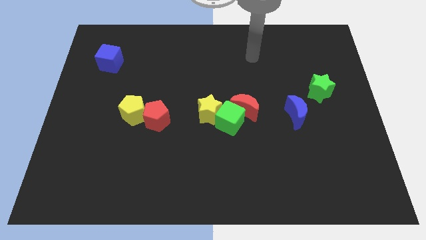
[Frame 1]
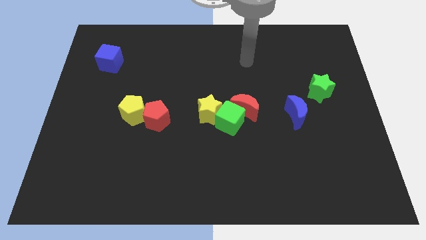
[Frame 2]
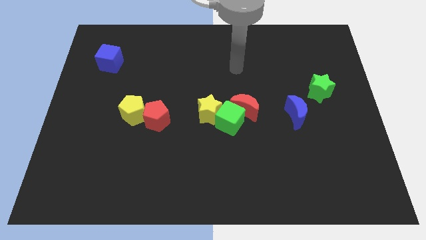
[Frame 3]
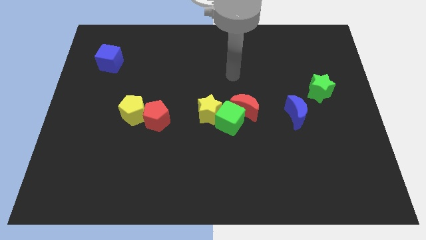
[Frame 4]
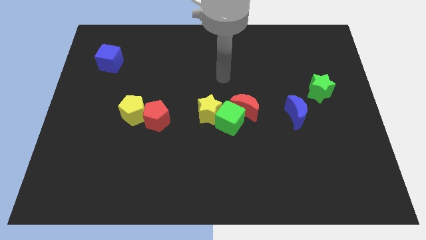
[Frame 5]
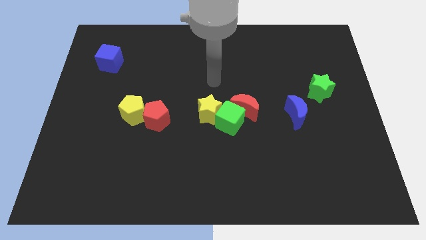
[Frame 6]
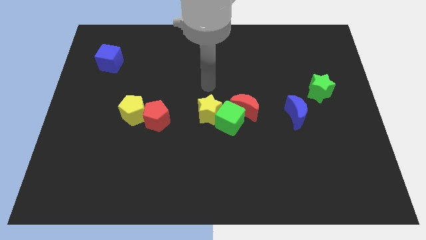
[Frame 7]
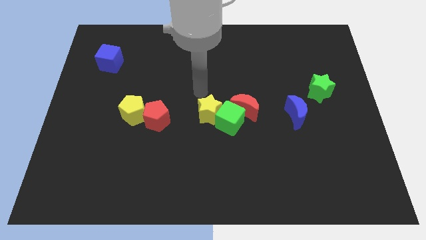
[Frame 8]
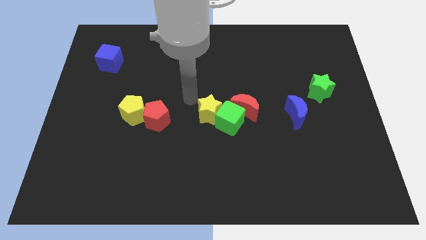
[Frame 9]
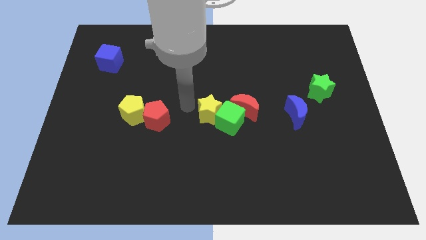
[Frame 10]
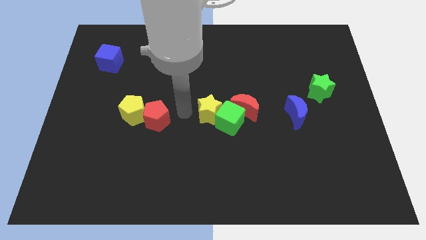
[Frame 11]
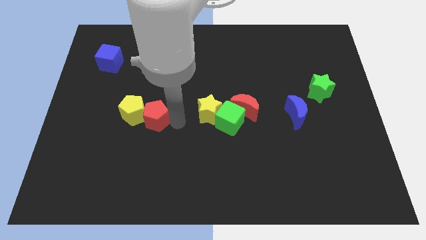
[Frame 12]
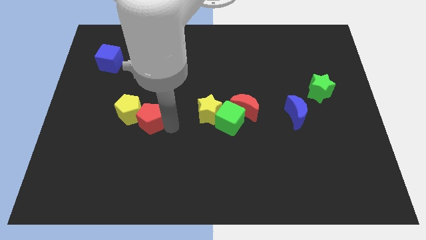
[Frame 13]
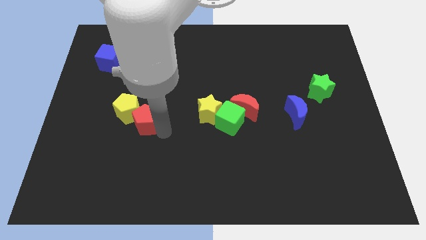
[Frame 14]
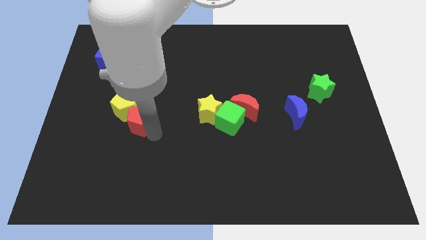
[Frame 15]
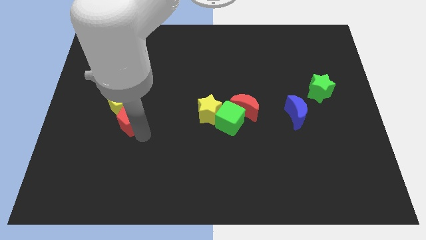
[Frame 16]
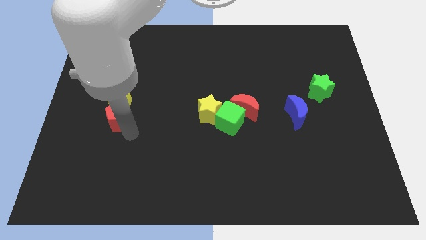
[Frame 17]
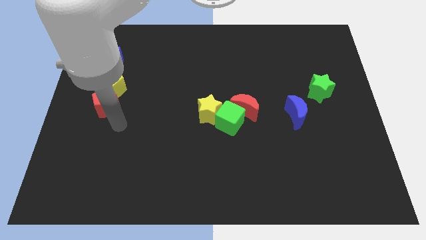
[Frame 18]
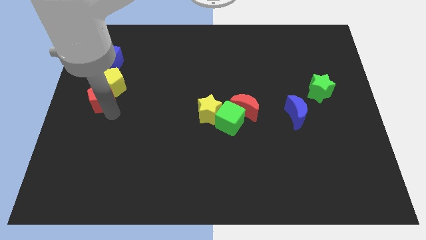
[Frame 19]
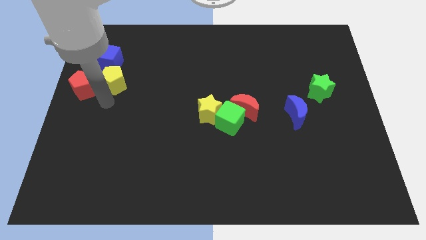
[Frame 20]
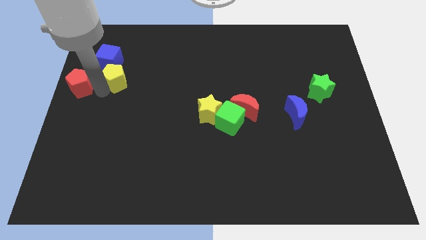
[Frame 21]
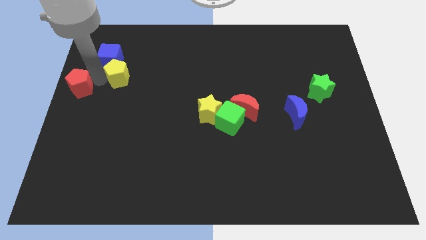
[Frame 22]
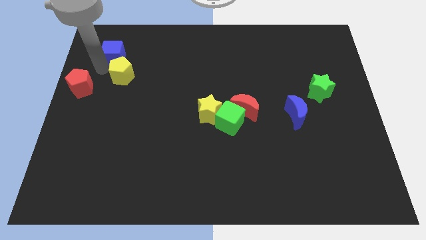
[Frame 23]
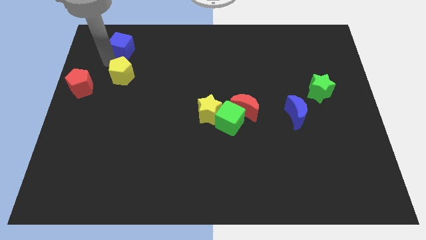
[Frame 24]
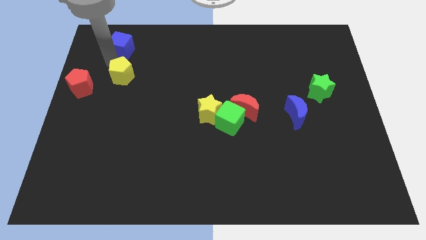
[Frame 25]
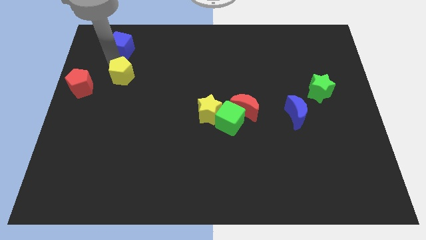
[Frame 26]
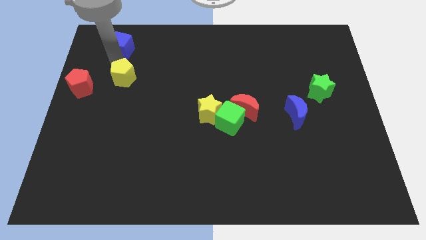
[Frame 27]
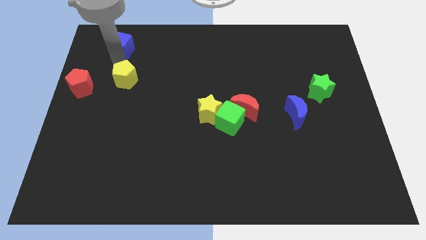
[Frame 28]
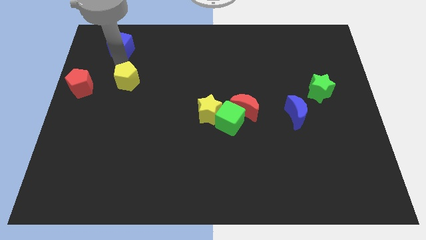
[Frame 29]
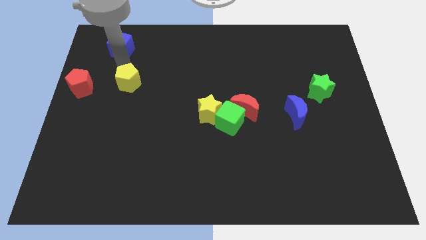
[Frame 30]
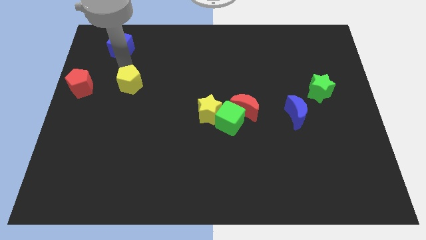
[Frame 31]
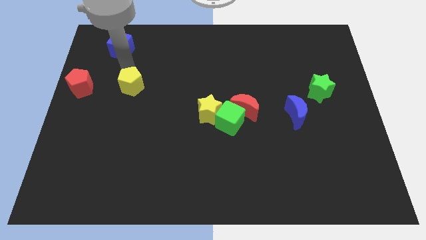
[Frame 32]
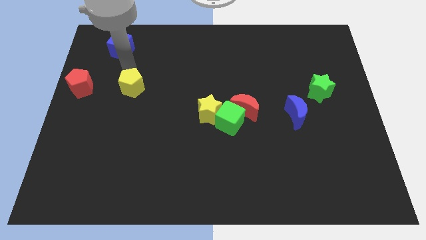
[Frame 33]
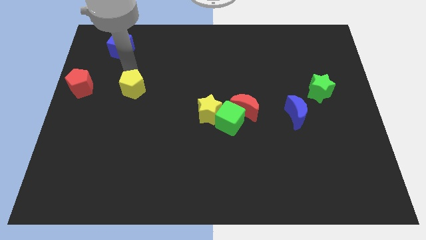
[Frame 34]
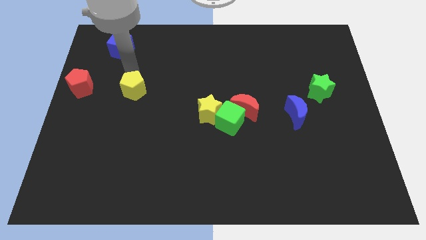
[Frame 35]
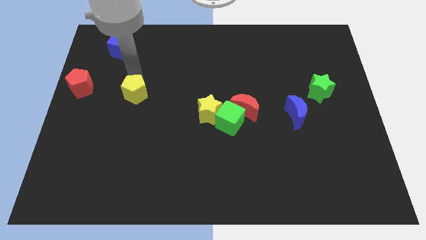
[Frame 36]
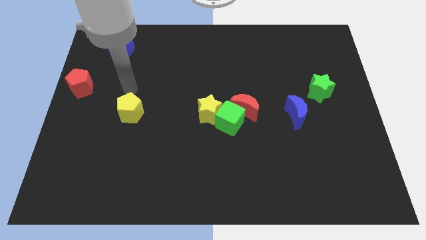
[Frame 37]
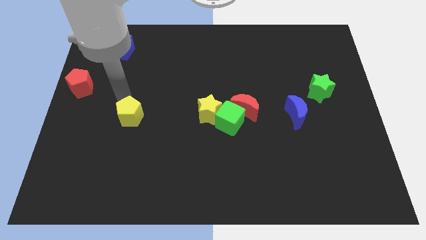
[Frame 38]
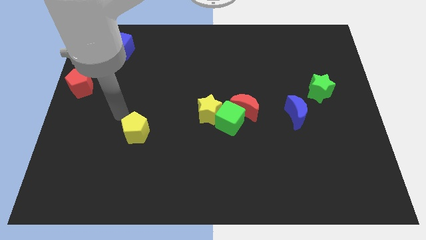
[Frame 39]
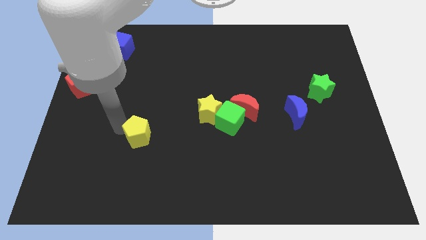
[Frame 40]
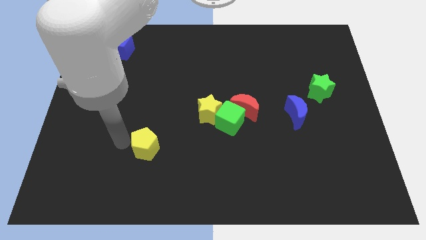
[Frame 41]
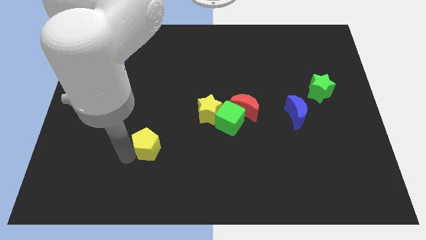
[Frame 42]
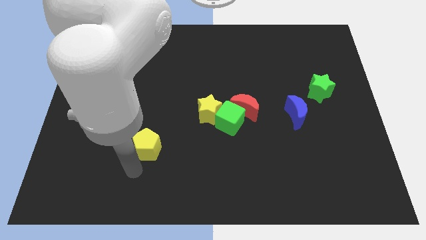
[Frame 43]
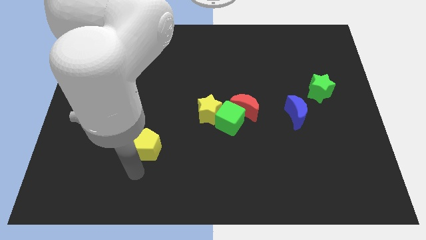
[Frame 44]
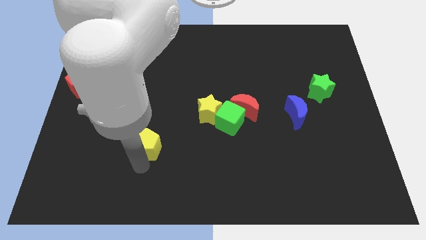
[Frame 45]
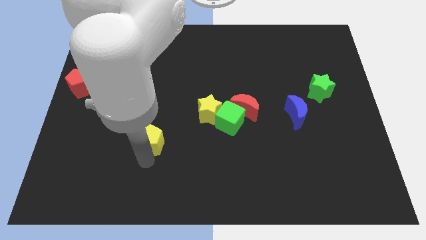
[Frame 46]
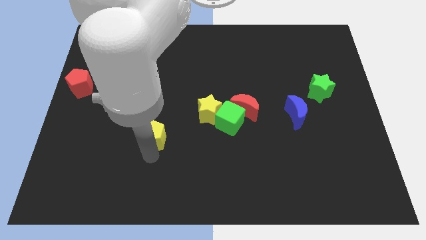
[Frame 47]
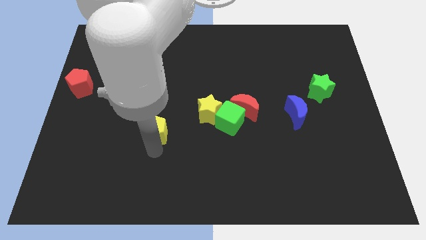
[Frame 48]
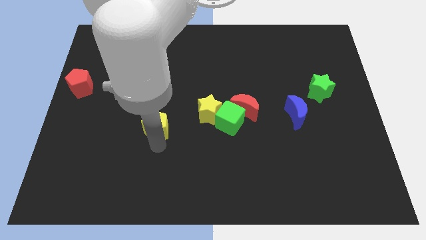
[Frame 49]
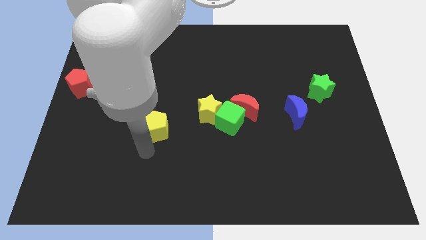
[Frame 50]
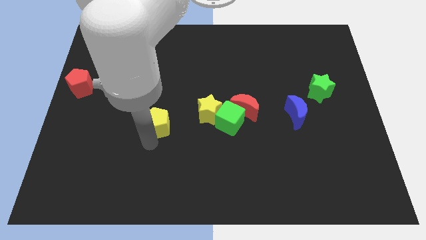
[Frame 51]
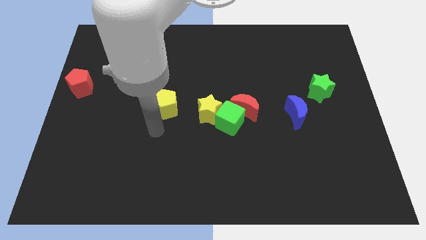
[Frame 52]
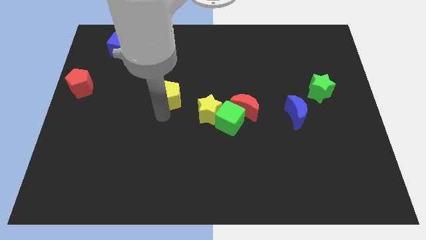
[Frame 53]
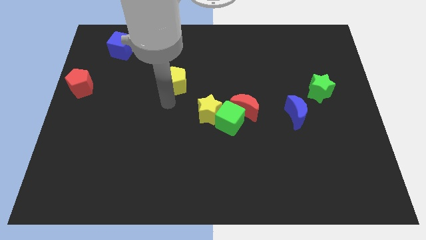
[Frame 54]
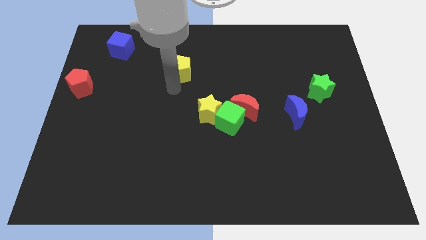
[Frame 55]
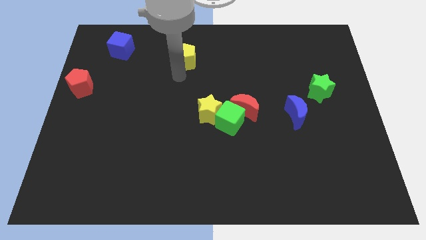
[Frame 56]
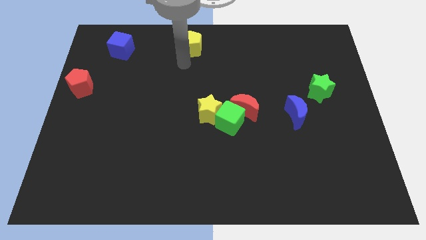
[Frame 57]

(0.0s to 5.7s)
put the yellow pentagon to the towards your base

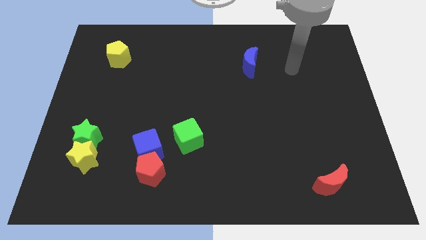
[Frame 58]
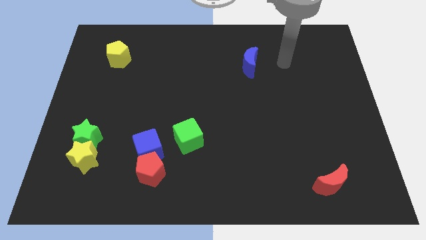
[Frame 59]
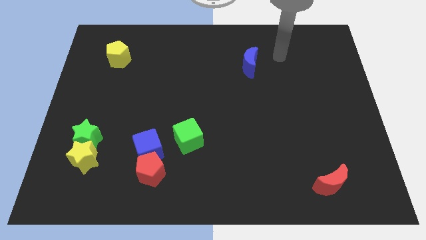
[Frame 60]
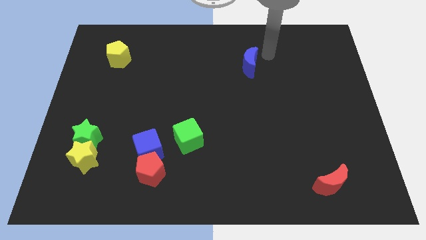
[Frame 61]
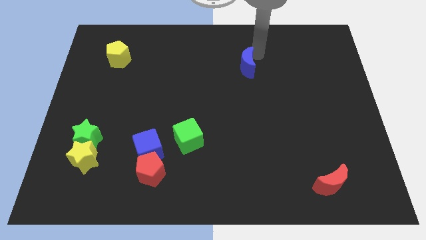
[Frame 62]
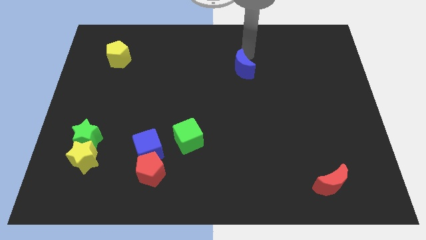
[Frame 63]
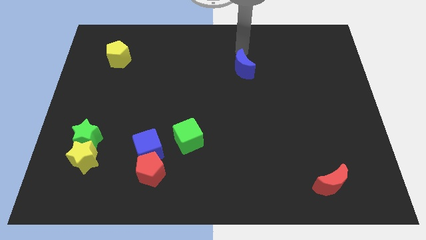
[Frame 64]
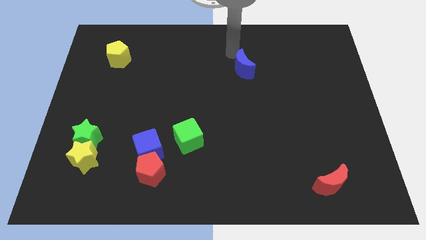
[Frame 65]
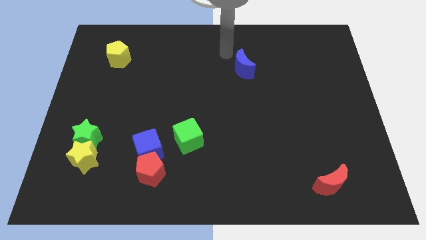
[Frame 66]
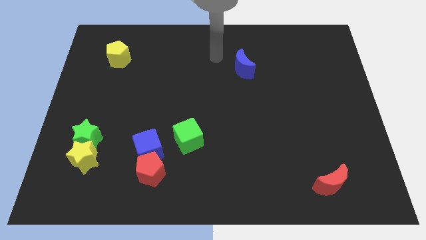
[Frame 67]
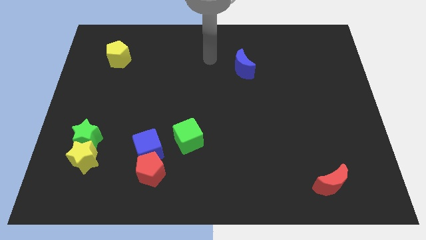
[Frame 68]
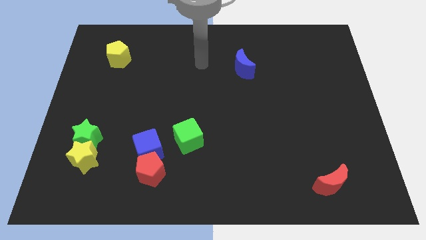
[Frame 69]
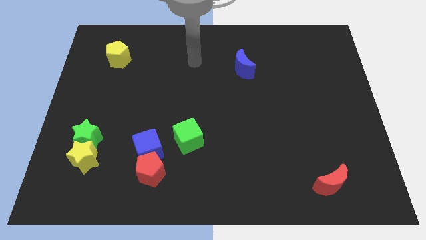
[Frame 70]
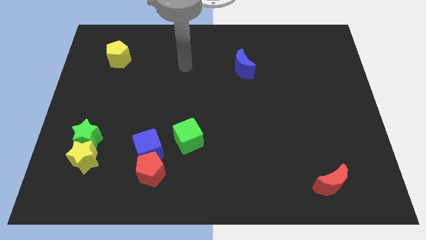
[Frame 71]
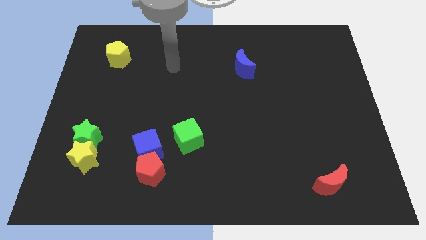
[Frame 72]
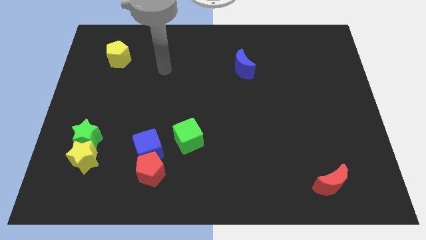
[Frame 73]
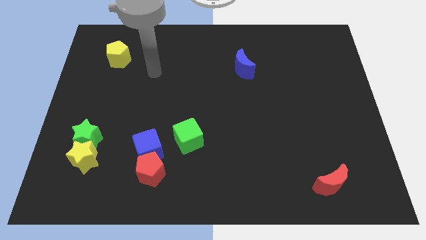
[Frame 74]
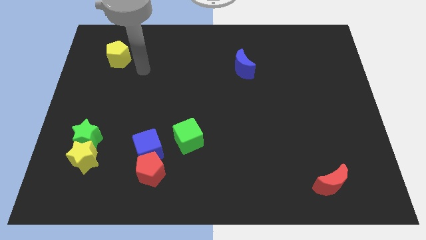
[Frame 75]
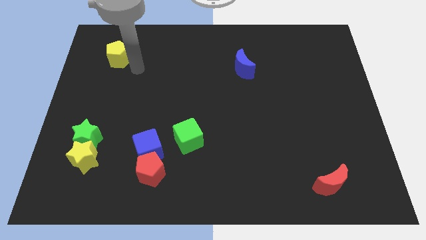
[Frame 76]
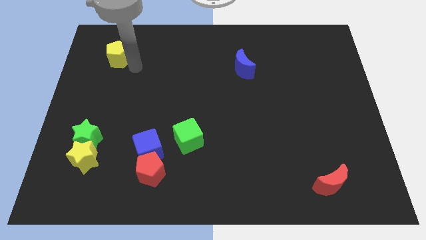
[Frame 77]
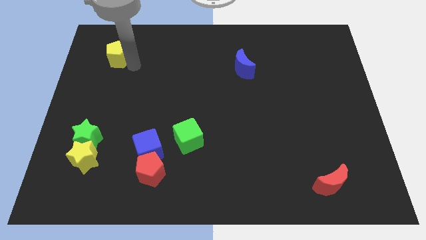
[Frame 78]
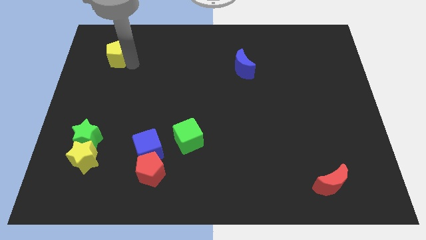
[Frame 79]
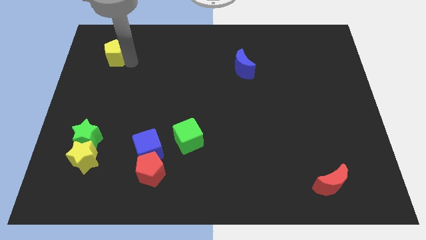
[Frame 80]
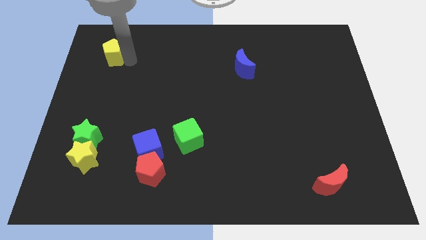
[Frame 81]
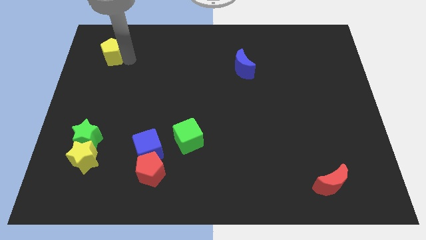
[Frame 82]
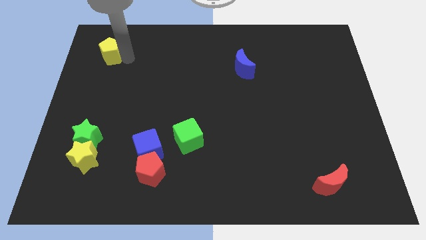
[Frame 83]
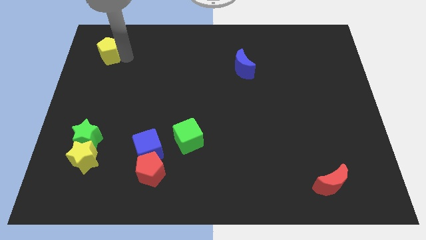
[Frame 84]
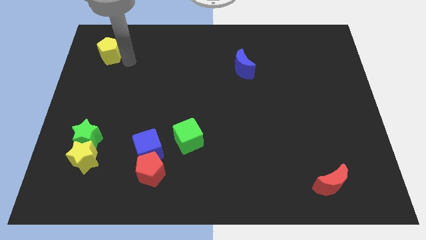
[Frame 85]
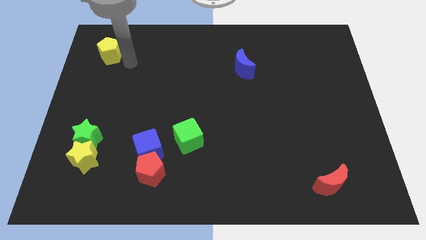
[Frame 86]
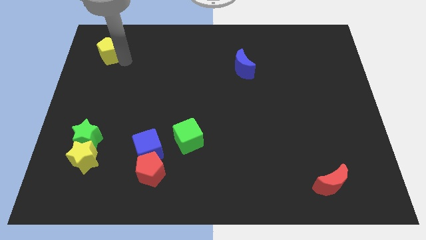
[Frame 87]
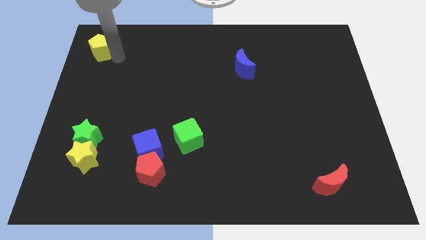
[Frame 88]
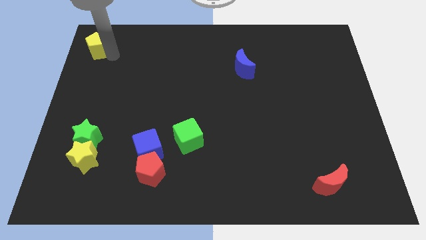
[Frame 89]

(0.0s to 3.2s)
push the yellow pentagon to the top left corner
